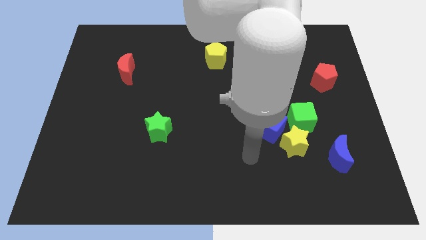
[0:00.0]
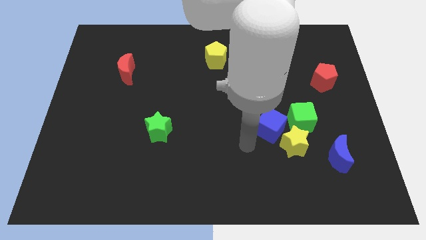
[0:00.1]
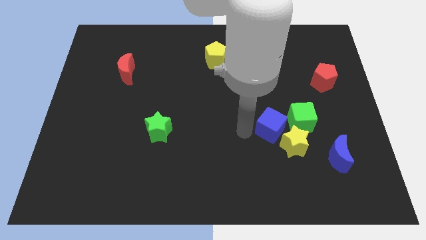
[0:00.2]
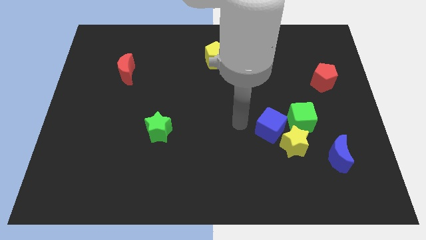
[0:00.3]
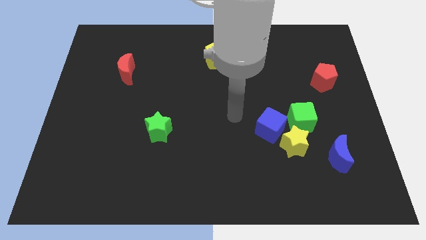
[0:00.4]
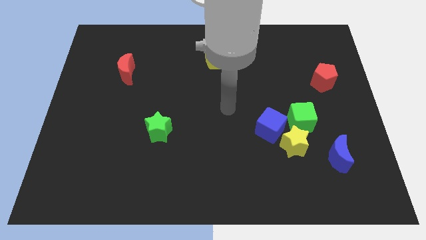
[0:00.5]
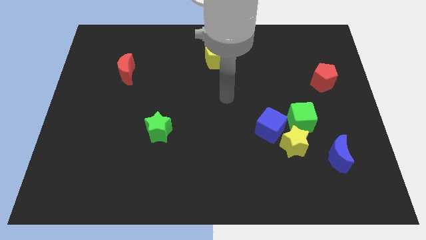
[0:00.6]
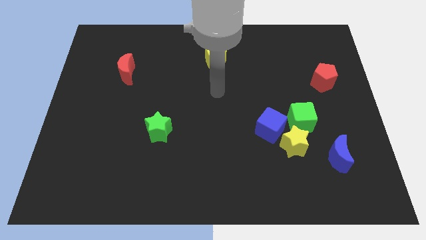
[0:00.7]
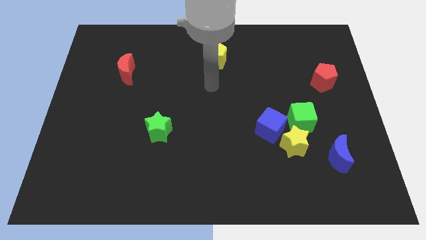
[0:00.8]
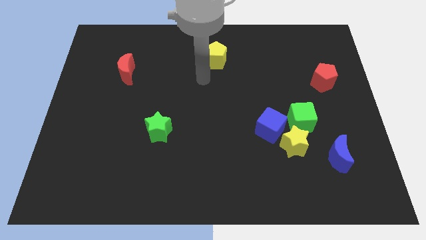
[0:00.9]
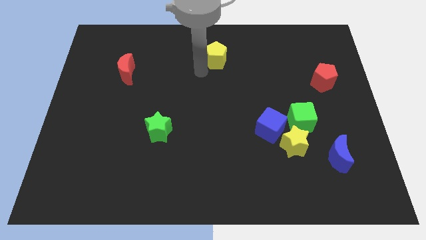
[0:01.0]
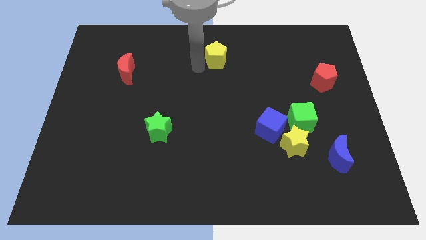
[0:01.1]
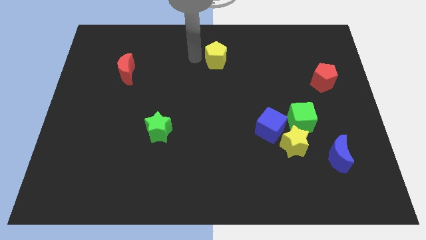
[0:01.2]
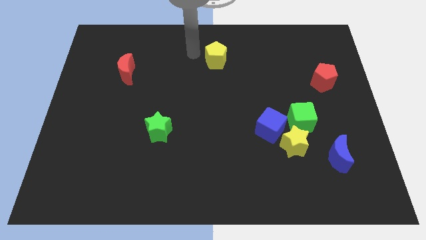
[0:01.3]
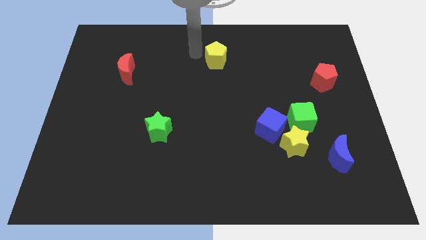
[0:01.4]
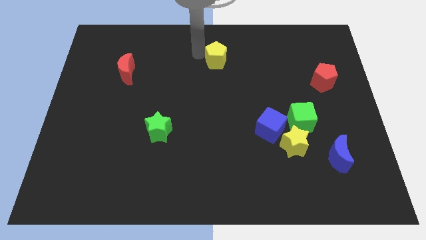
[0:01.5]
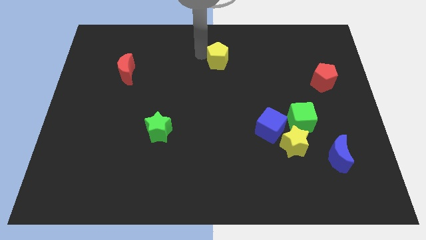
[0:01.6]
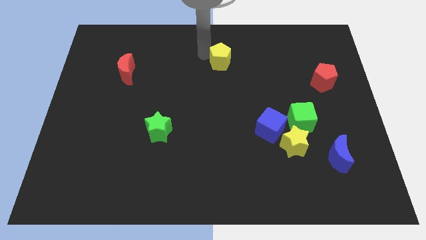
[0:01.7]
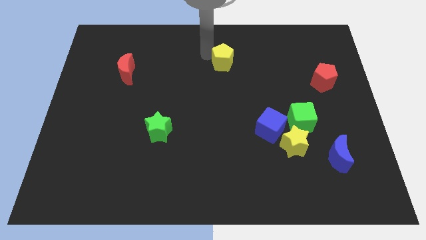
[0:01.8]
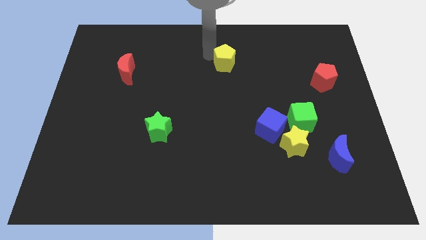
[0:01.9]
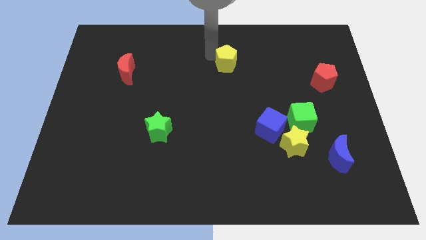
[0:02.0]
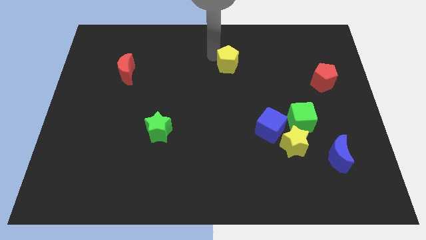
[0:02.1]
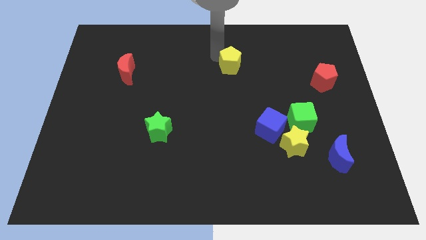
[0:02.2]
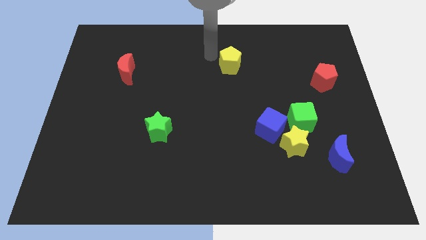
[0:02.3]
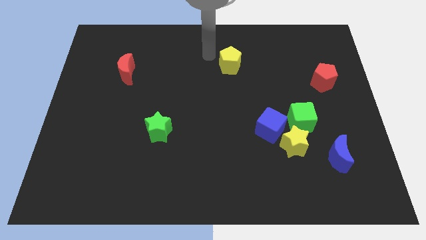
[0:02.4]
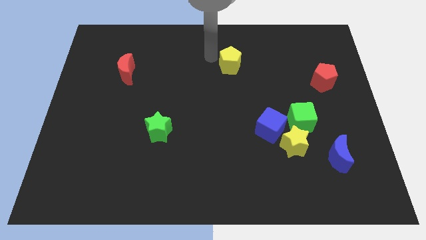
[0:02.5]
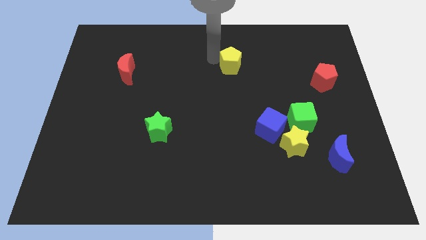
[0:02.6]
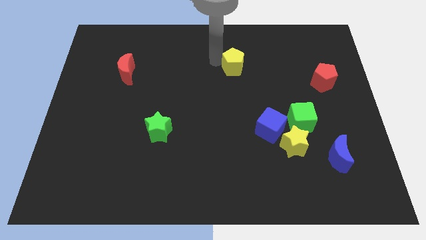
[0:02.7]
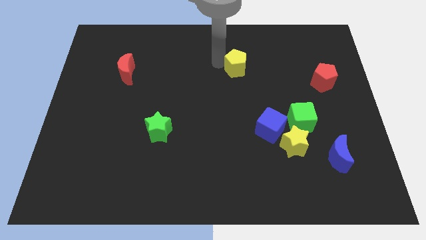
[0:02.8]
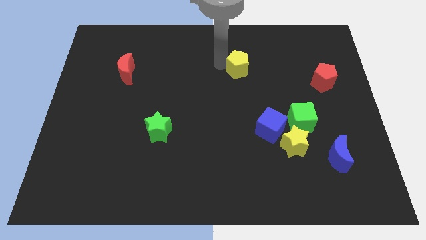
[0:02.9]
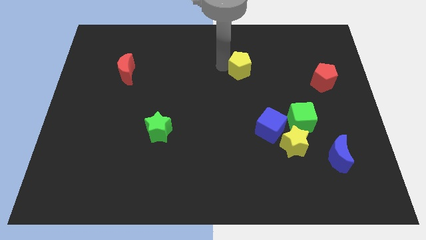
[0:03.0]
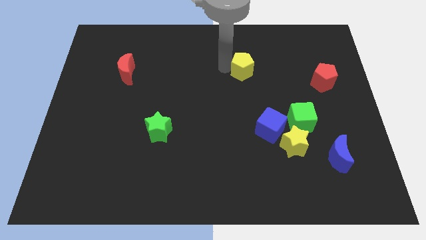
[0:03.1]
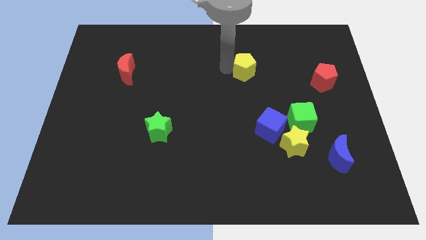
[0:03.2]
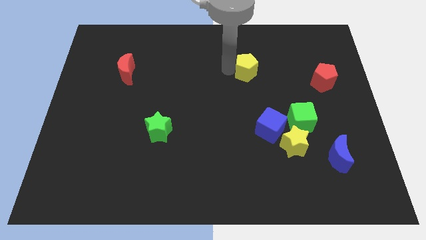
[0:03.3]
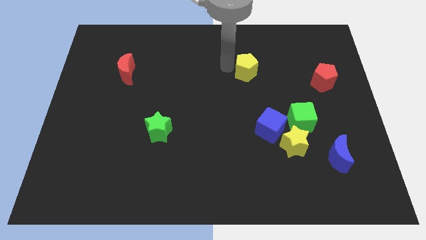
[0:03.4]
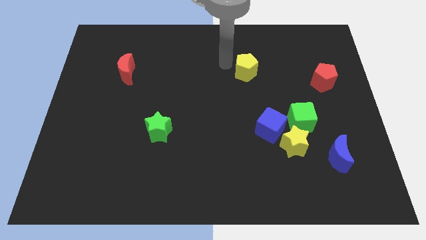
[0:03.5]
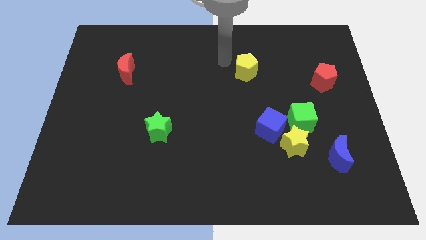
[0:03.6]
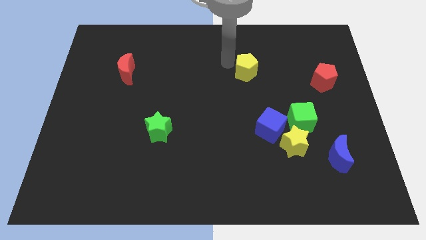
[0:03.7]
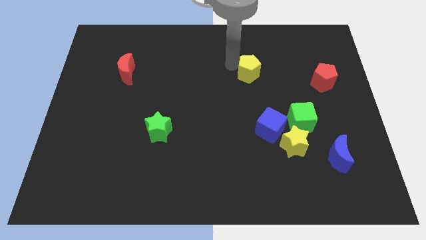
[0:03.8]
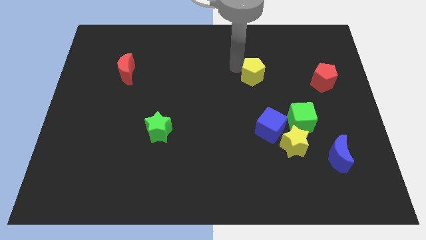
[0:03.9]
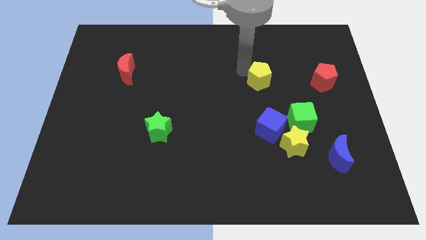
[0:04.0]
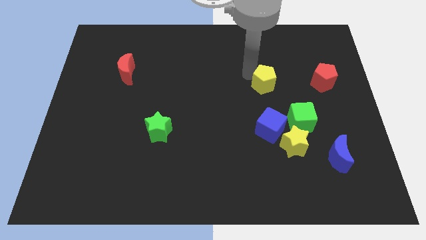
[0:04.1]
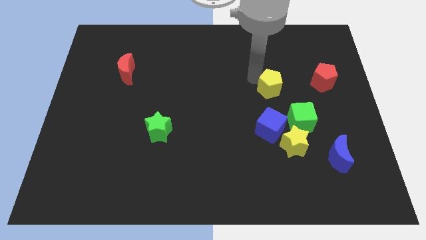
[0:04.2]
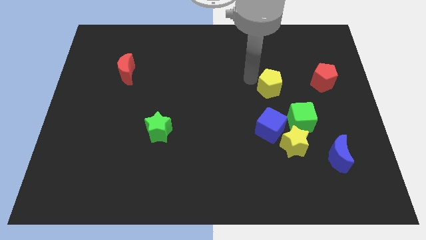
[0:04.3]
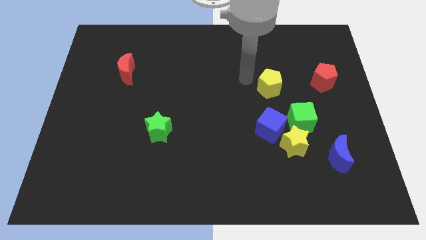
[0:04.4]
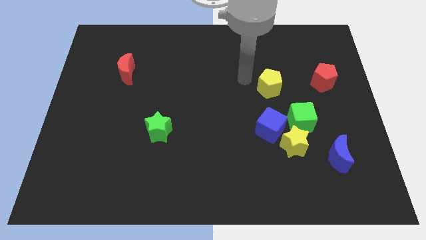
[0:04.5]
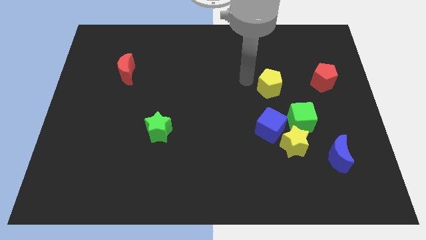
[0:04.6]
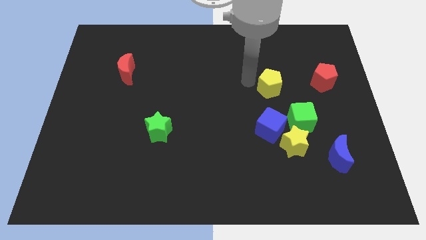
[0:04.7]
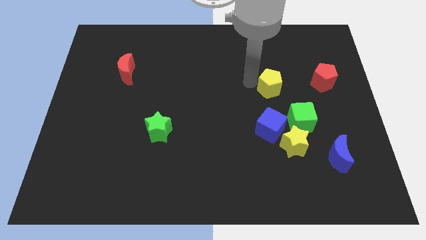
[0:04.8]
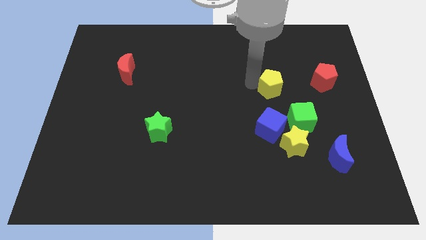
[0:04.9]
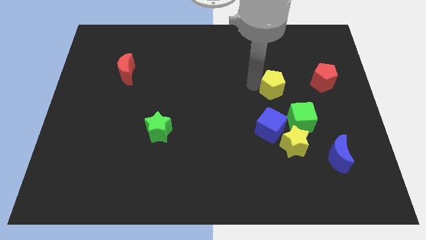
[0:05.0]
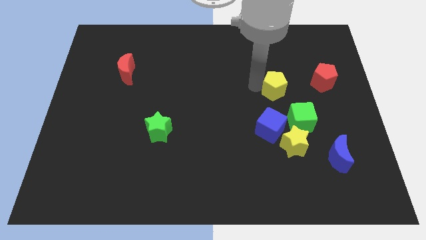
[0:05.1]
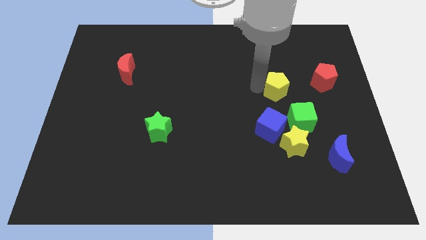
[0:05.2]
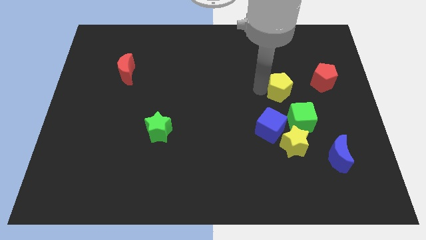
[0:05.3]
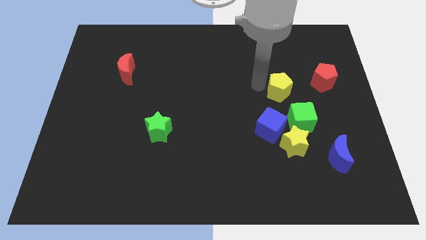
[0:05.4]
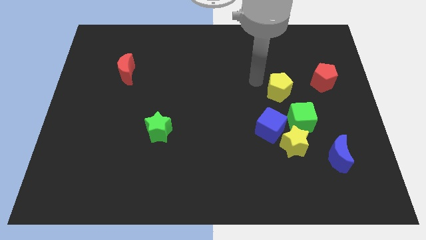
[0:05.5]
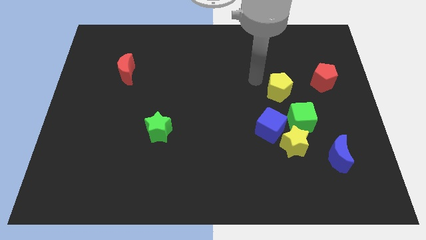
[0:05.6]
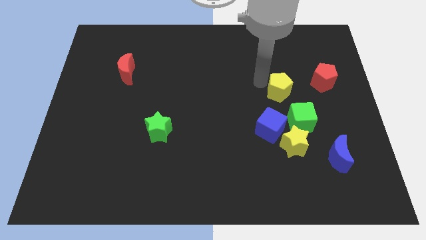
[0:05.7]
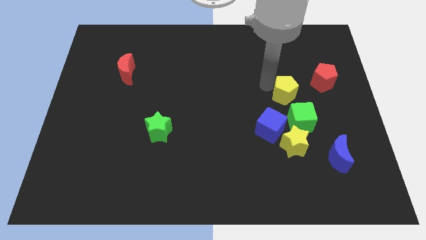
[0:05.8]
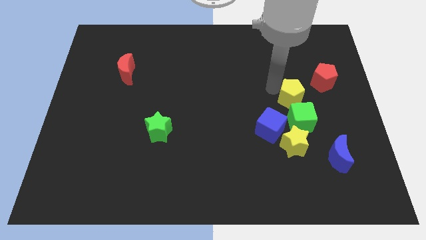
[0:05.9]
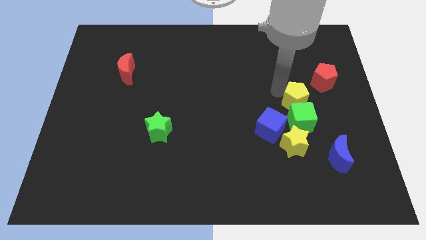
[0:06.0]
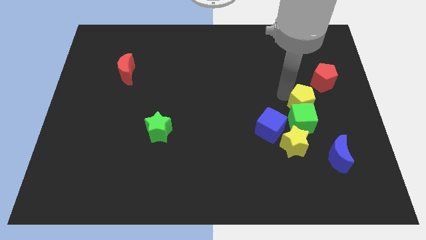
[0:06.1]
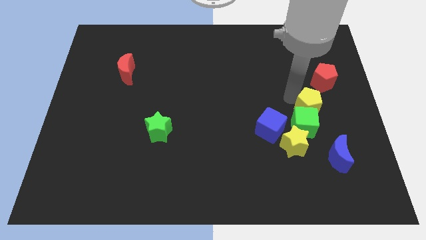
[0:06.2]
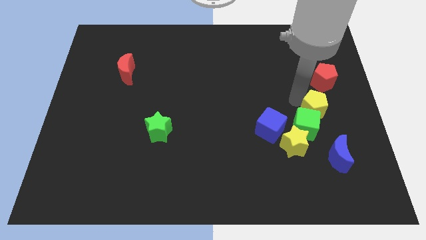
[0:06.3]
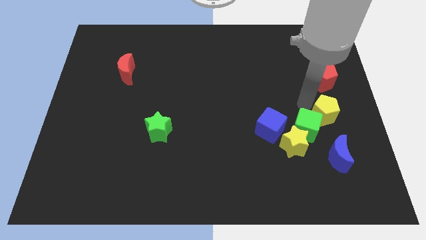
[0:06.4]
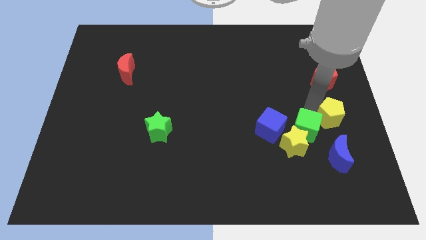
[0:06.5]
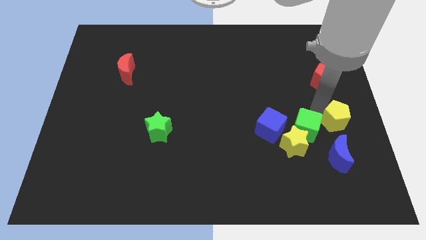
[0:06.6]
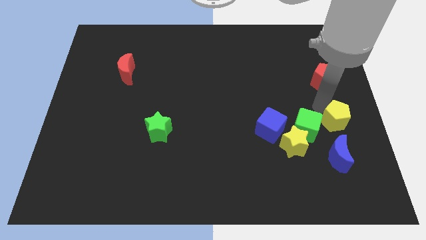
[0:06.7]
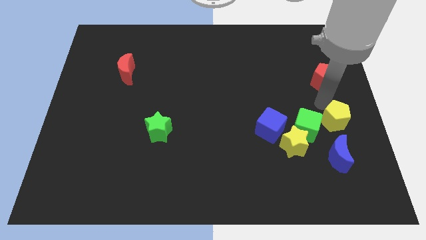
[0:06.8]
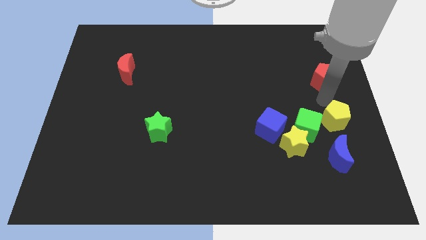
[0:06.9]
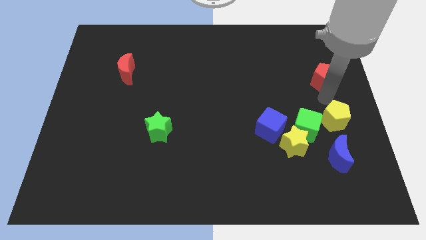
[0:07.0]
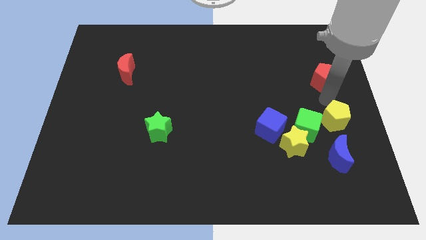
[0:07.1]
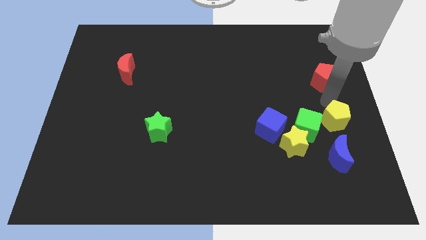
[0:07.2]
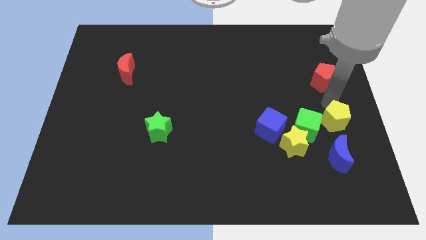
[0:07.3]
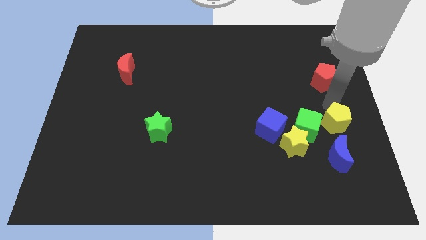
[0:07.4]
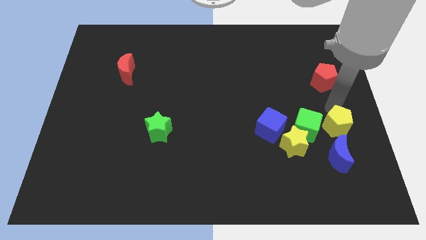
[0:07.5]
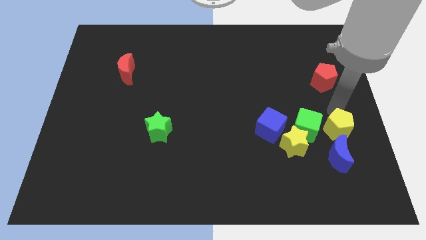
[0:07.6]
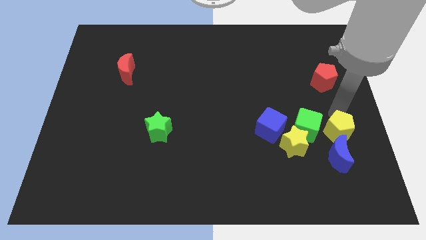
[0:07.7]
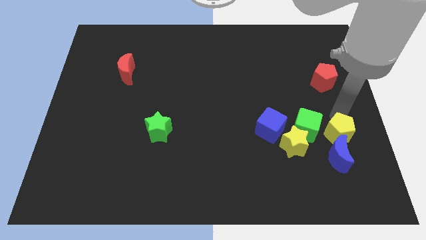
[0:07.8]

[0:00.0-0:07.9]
push the yellow pentagon to the blue moon
